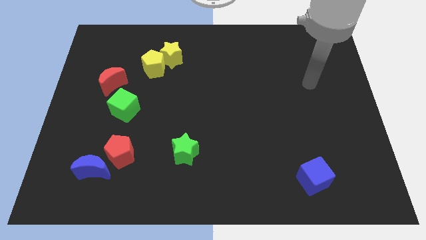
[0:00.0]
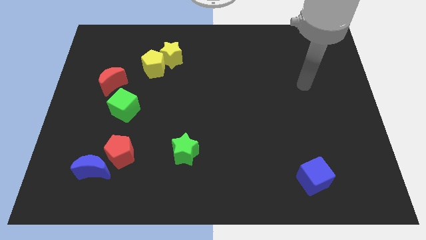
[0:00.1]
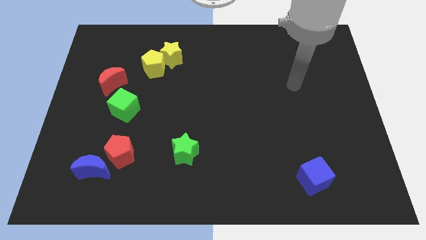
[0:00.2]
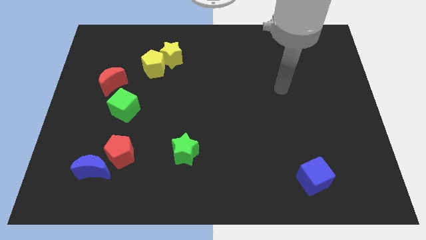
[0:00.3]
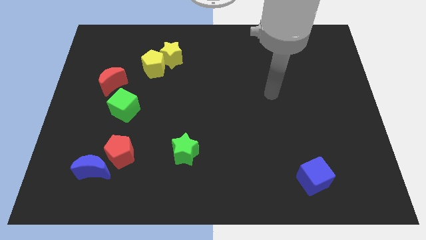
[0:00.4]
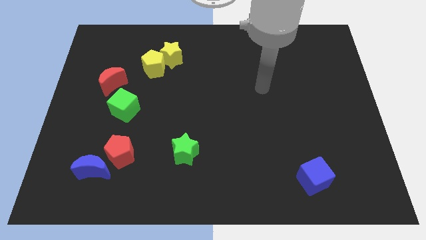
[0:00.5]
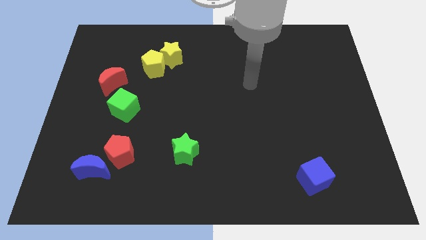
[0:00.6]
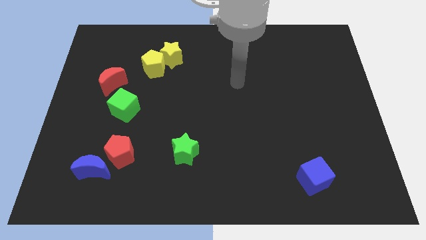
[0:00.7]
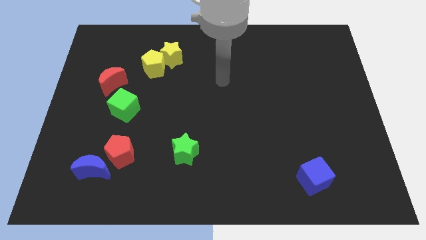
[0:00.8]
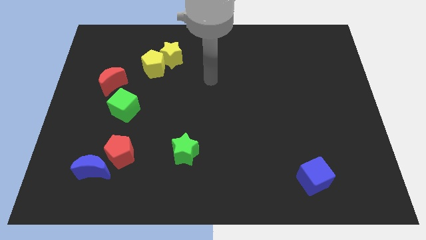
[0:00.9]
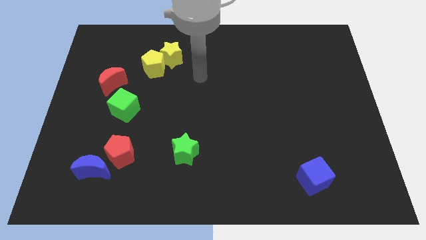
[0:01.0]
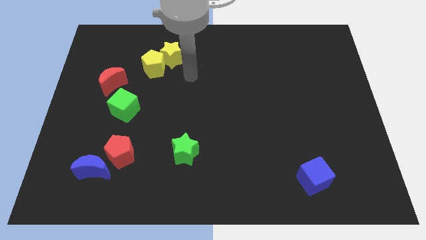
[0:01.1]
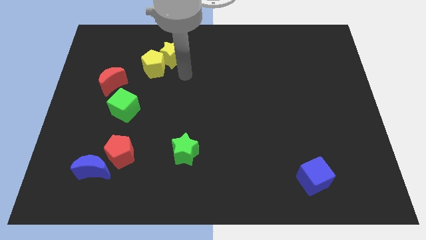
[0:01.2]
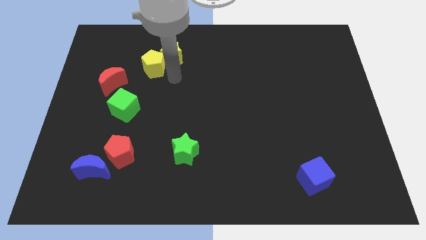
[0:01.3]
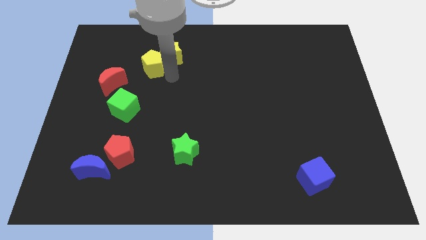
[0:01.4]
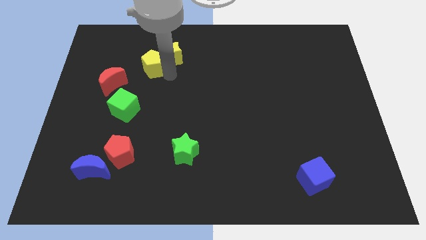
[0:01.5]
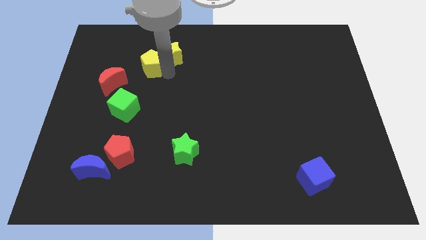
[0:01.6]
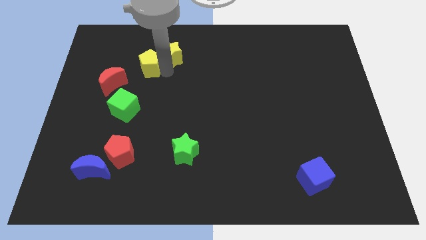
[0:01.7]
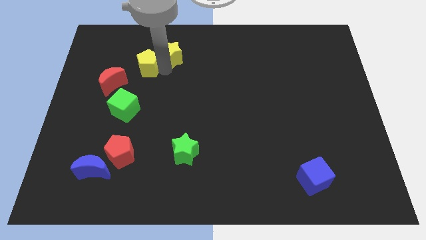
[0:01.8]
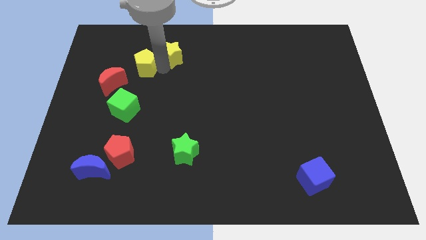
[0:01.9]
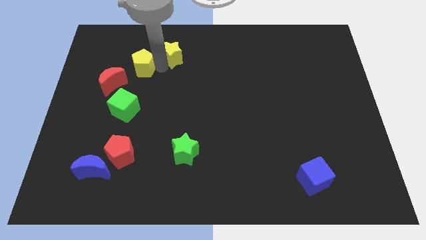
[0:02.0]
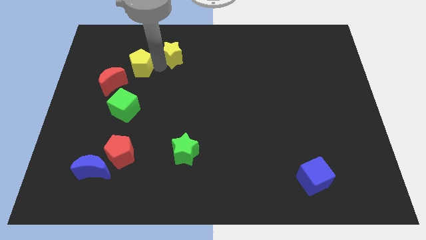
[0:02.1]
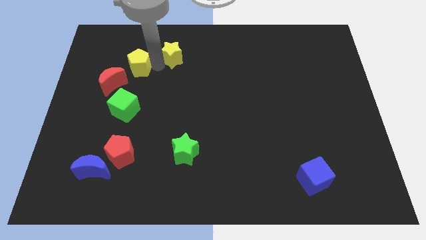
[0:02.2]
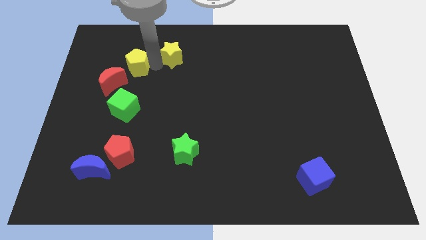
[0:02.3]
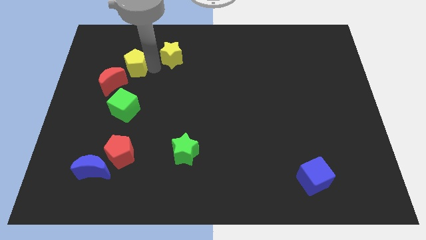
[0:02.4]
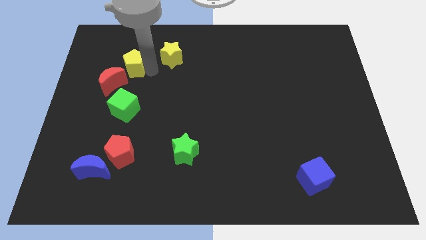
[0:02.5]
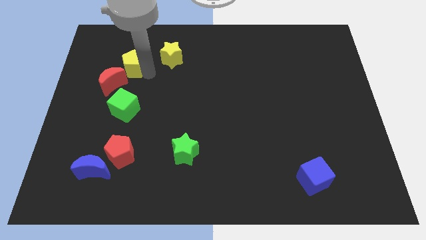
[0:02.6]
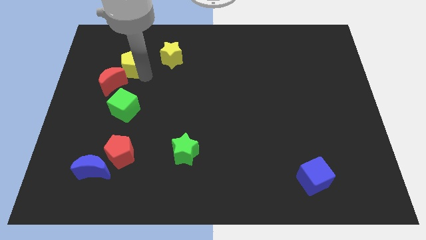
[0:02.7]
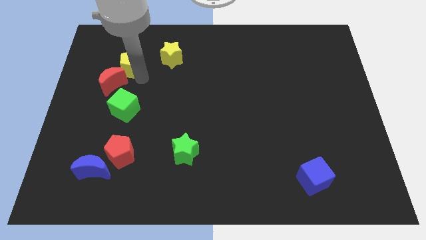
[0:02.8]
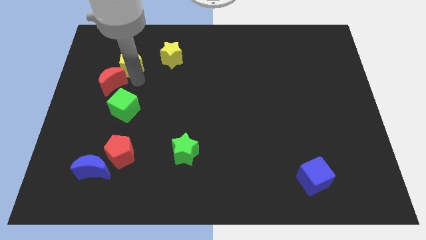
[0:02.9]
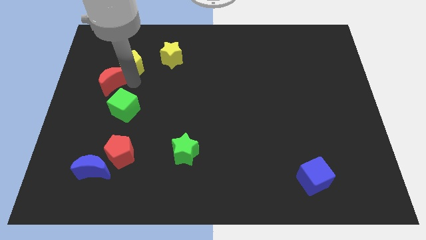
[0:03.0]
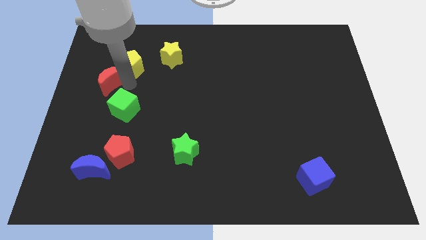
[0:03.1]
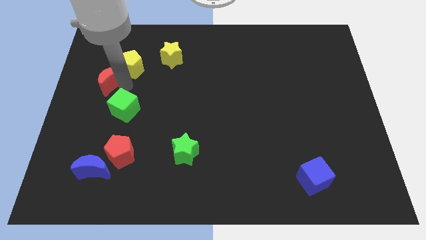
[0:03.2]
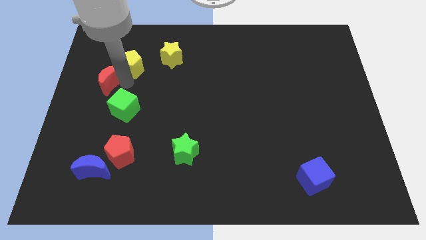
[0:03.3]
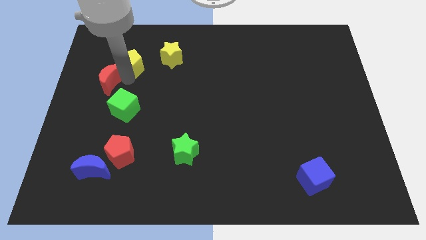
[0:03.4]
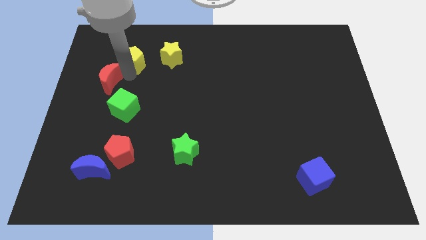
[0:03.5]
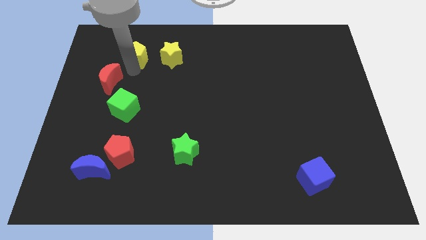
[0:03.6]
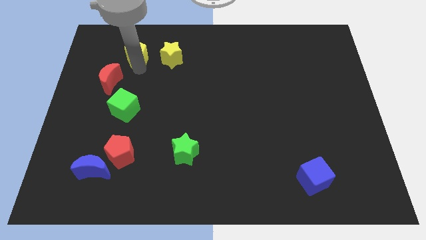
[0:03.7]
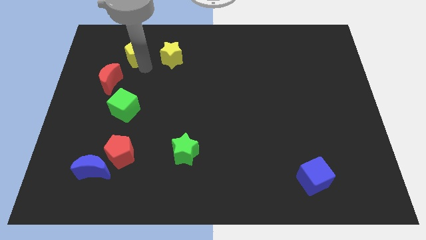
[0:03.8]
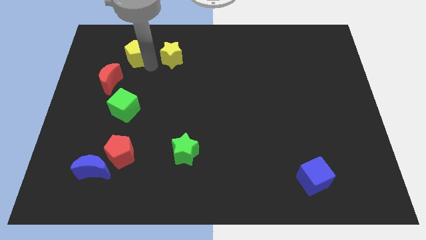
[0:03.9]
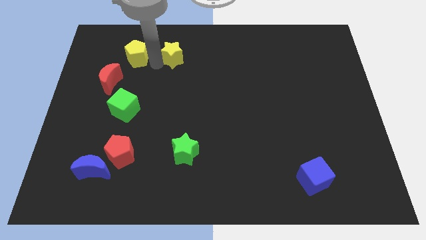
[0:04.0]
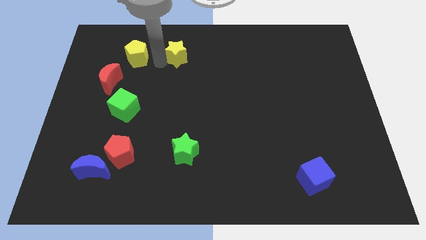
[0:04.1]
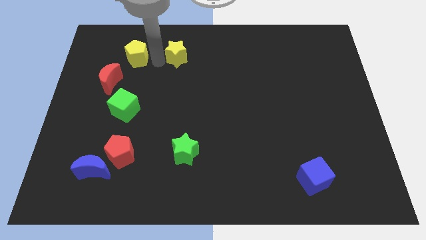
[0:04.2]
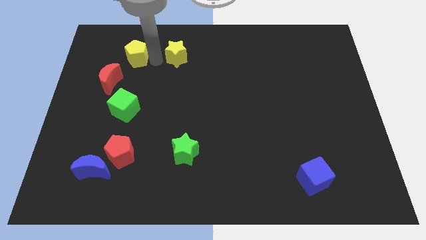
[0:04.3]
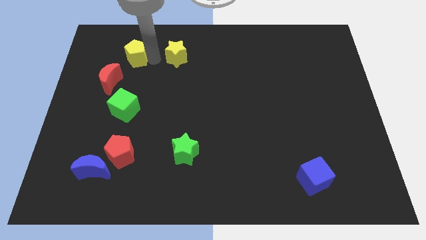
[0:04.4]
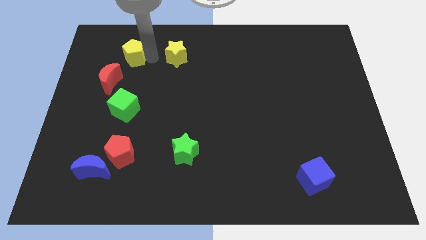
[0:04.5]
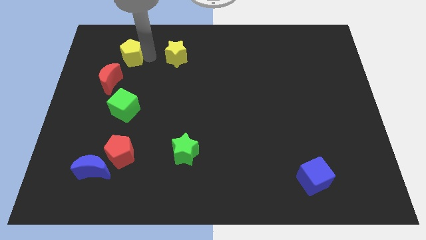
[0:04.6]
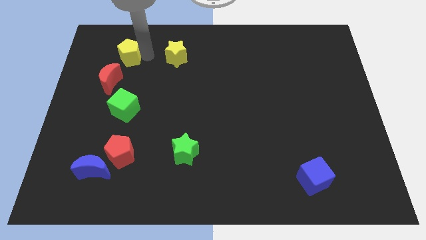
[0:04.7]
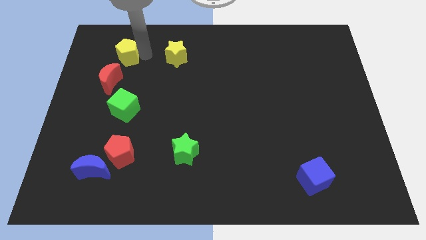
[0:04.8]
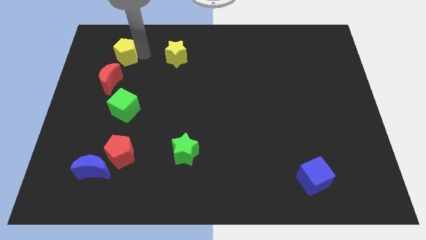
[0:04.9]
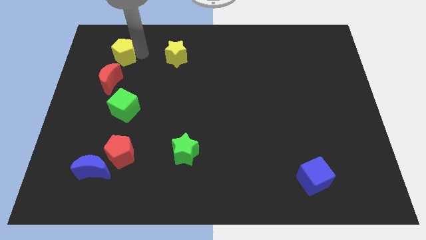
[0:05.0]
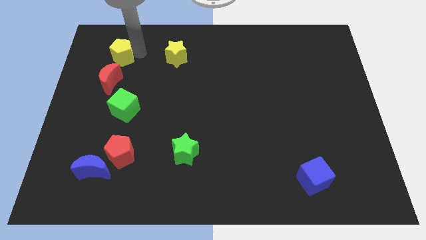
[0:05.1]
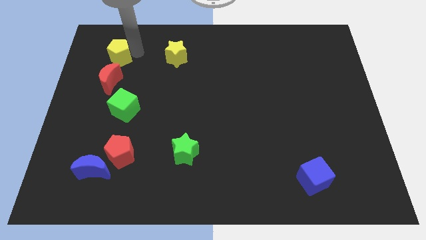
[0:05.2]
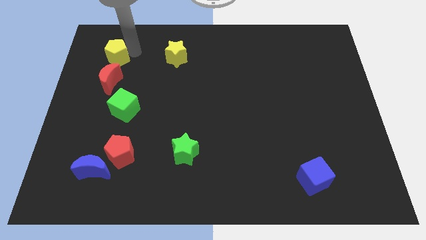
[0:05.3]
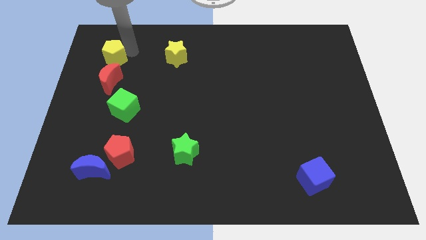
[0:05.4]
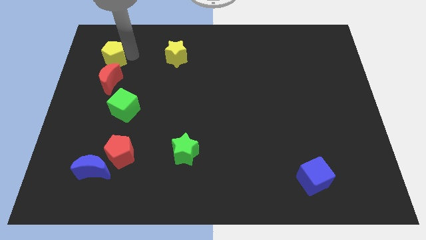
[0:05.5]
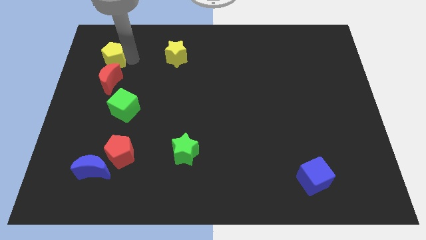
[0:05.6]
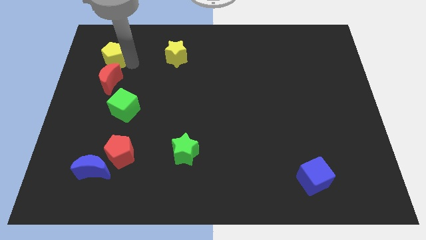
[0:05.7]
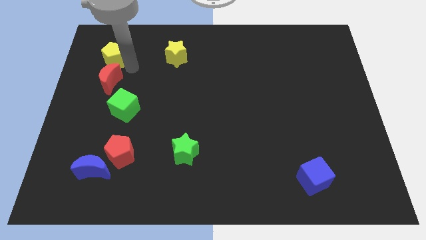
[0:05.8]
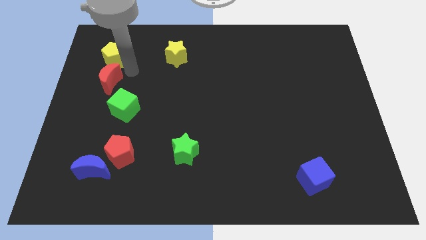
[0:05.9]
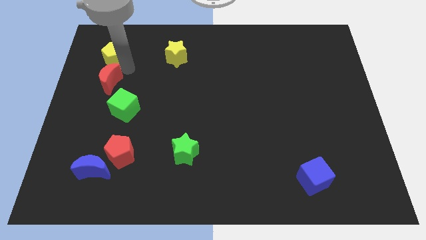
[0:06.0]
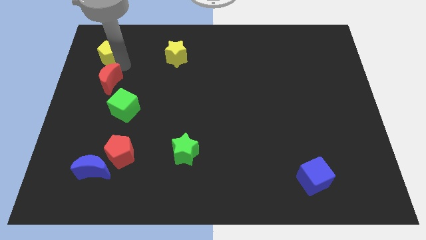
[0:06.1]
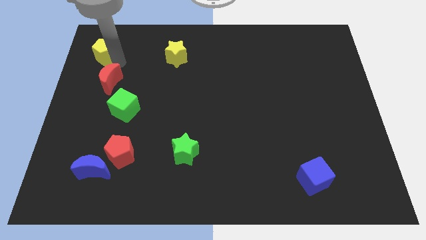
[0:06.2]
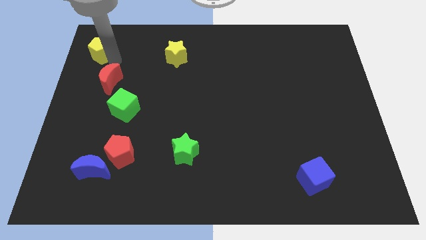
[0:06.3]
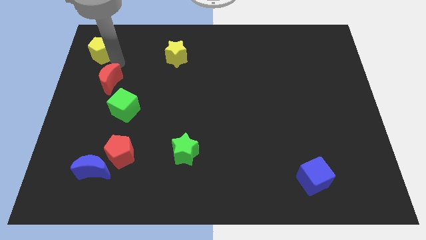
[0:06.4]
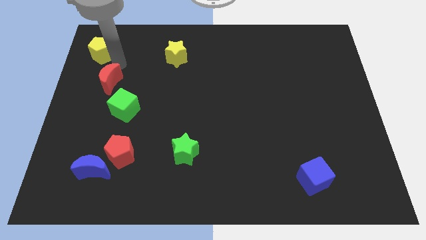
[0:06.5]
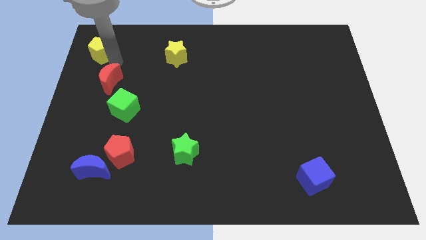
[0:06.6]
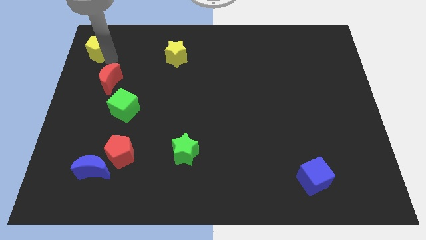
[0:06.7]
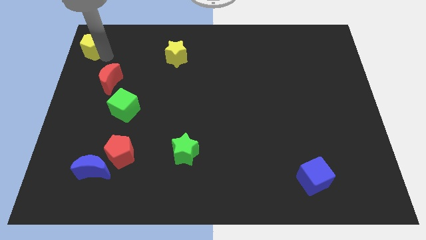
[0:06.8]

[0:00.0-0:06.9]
slide the yellow pentagon to the top left of the board
